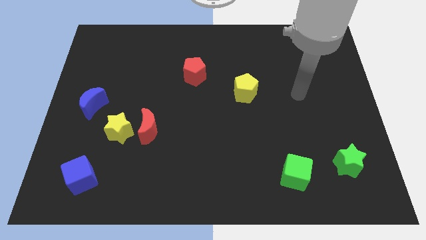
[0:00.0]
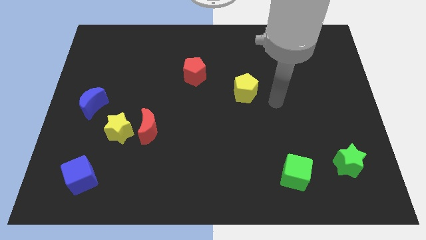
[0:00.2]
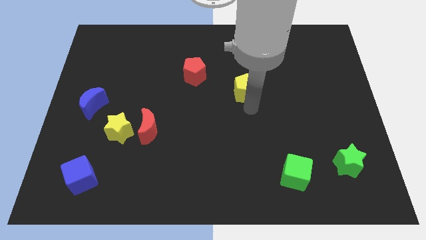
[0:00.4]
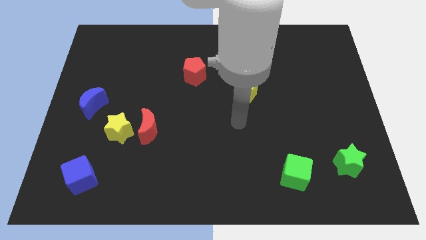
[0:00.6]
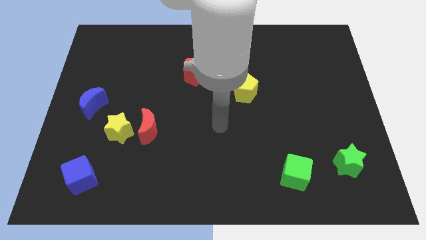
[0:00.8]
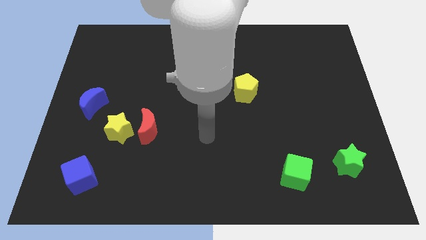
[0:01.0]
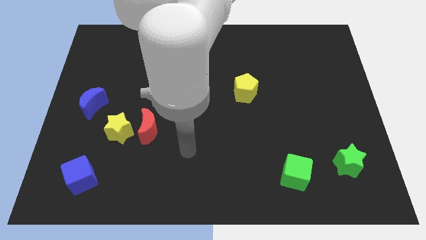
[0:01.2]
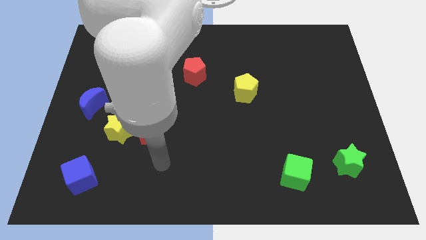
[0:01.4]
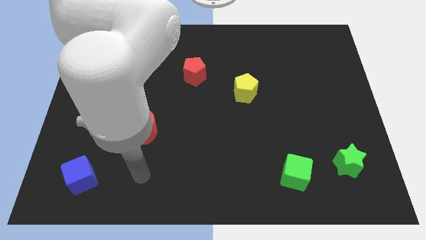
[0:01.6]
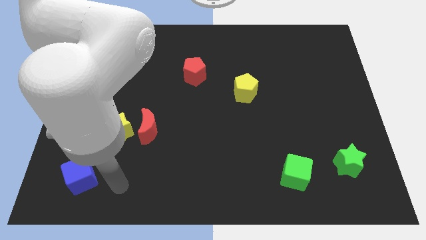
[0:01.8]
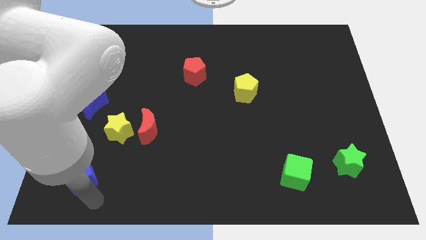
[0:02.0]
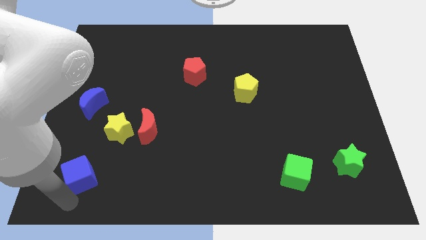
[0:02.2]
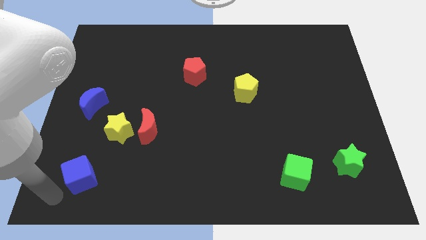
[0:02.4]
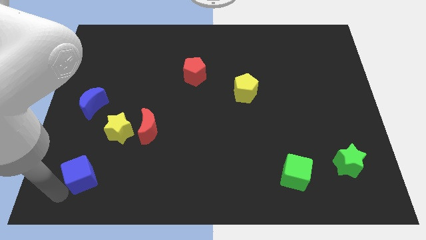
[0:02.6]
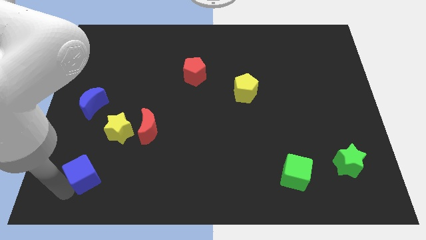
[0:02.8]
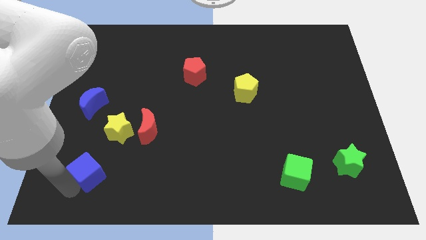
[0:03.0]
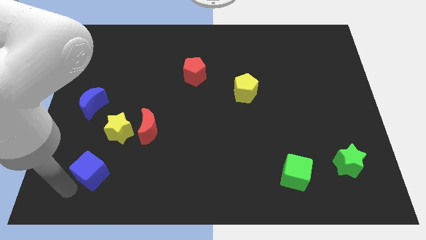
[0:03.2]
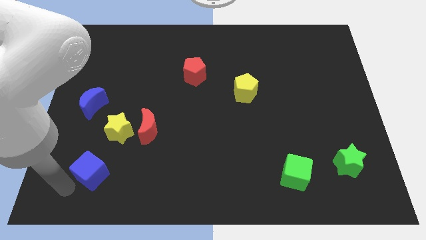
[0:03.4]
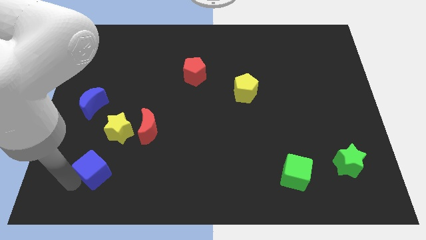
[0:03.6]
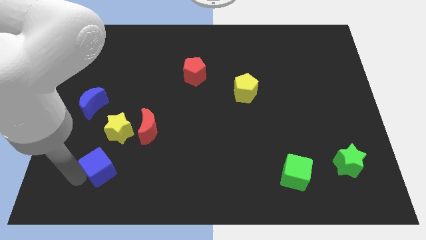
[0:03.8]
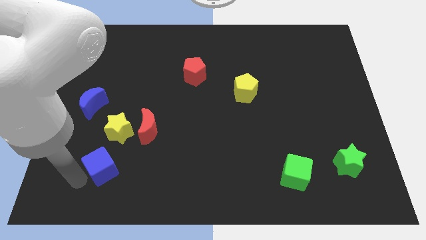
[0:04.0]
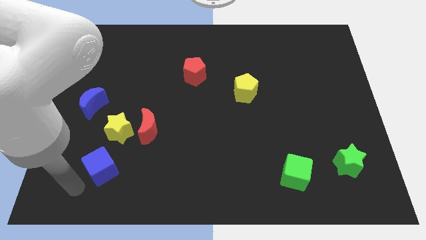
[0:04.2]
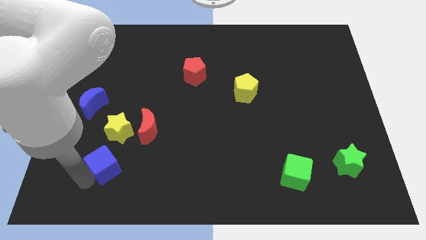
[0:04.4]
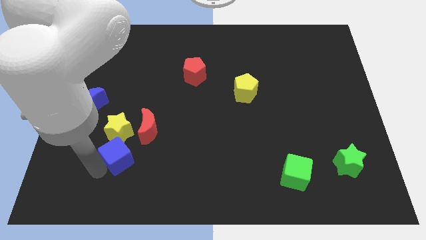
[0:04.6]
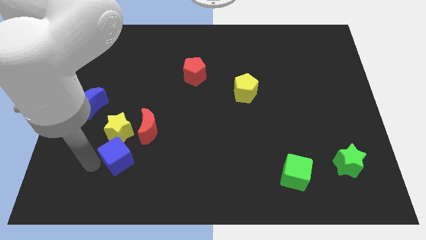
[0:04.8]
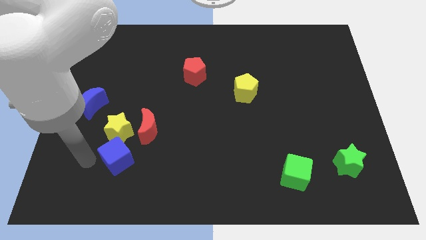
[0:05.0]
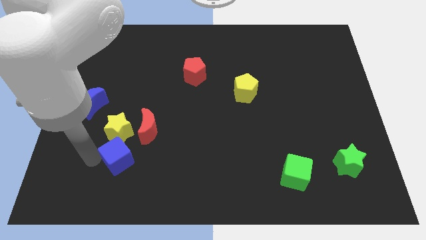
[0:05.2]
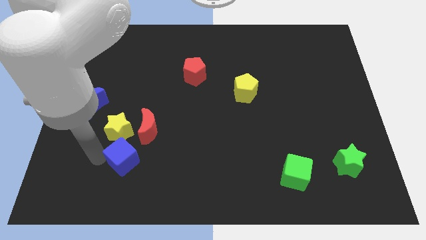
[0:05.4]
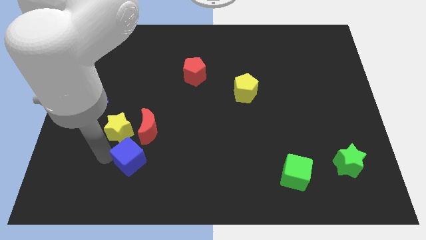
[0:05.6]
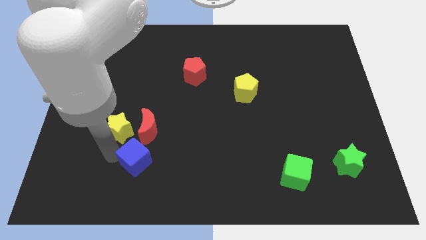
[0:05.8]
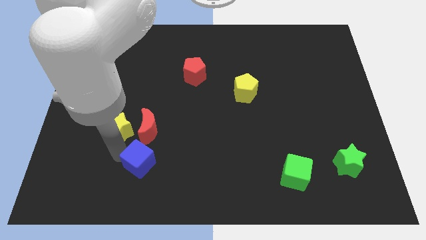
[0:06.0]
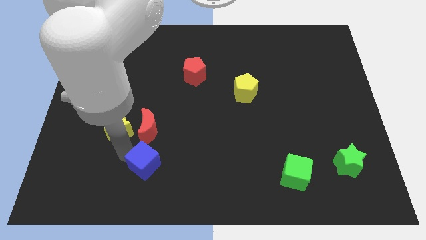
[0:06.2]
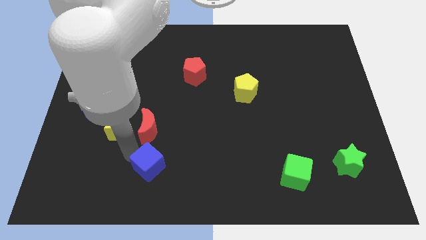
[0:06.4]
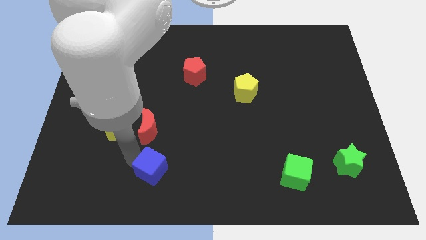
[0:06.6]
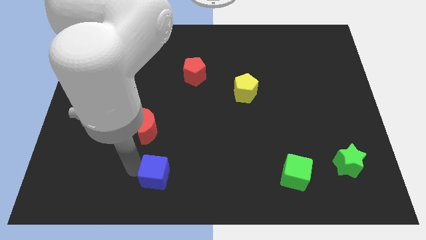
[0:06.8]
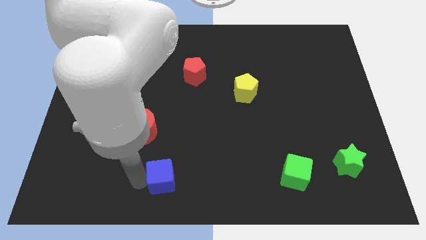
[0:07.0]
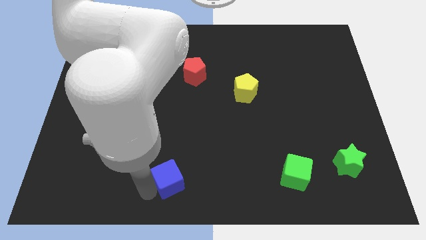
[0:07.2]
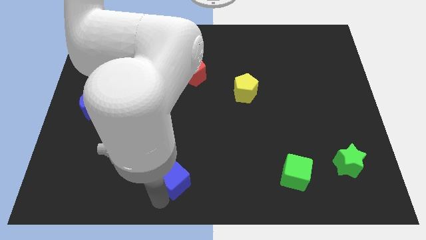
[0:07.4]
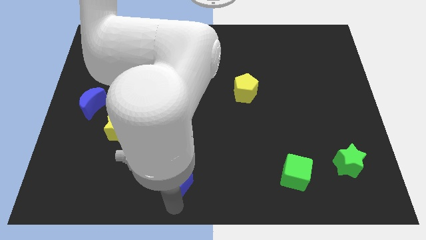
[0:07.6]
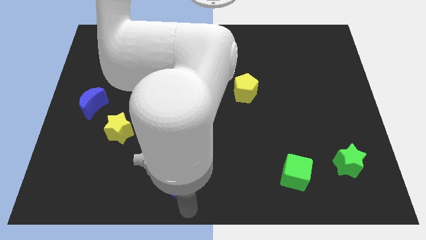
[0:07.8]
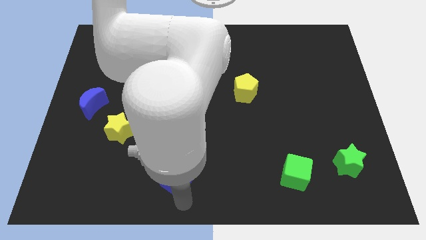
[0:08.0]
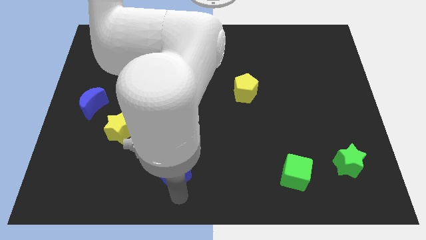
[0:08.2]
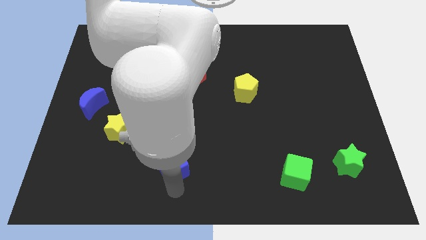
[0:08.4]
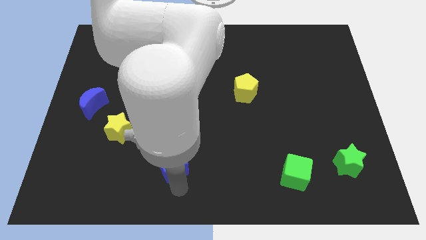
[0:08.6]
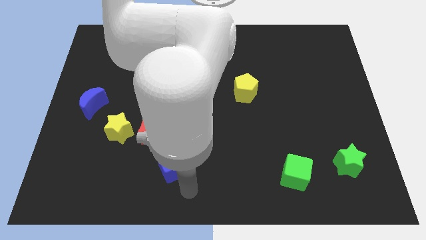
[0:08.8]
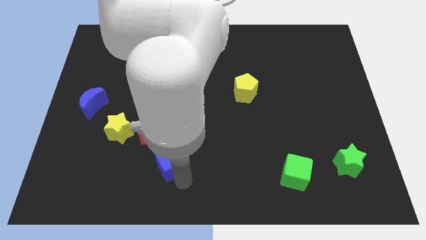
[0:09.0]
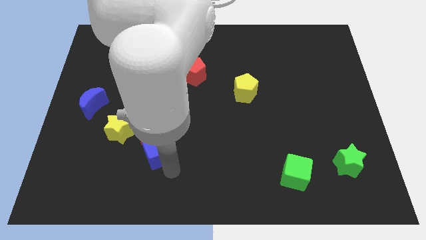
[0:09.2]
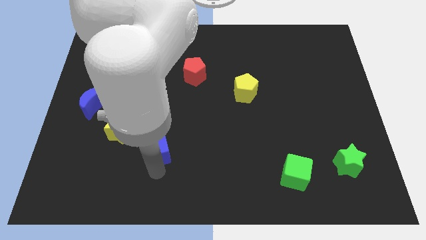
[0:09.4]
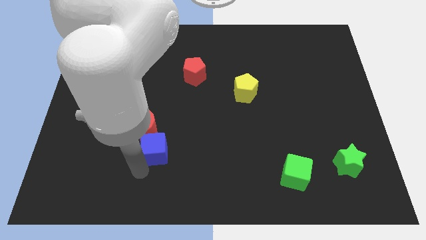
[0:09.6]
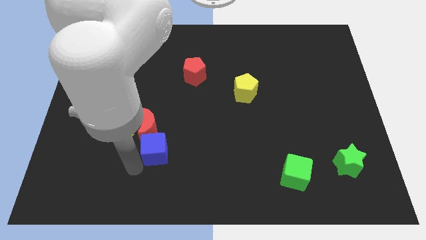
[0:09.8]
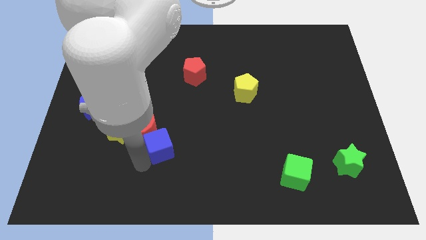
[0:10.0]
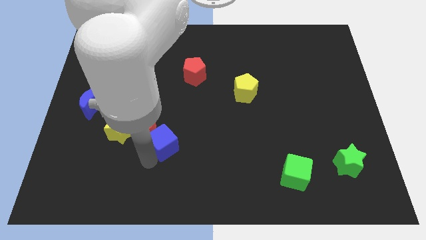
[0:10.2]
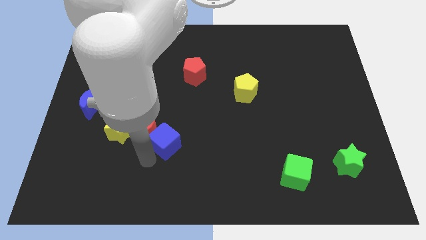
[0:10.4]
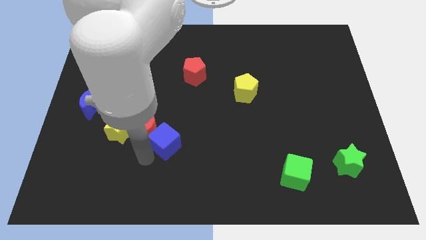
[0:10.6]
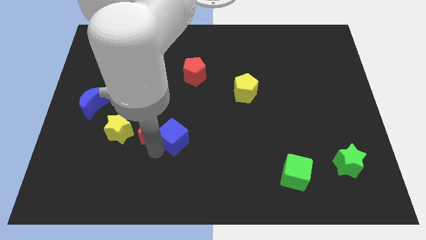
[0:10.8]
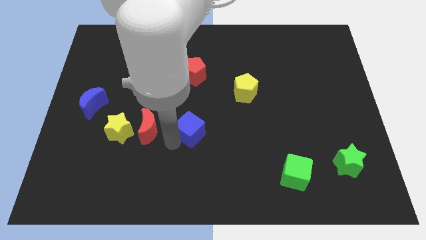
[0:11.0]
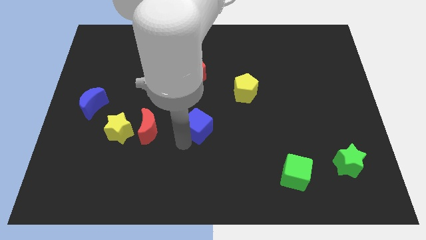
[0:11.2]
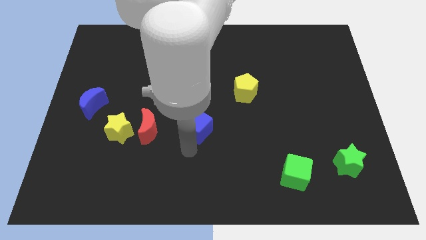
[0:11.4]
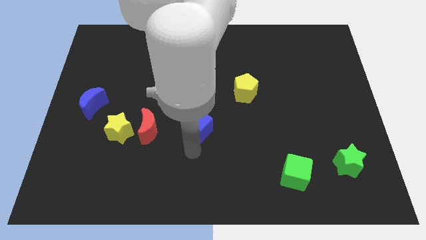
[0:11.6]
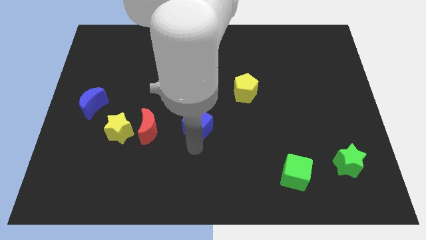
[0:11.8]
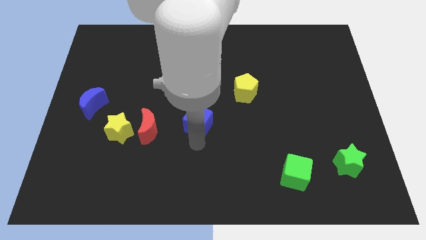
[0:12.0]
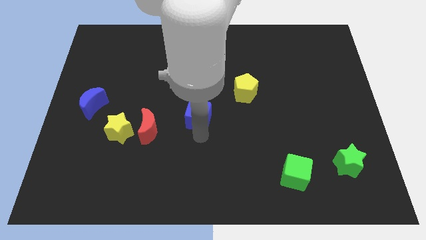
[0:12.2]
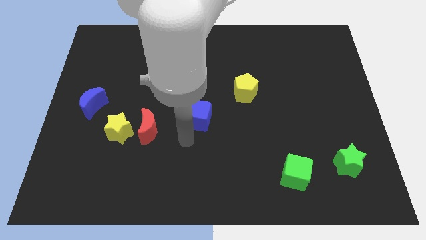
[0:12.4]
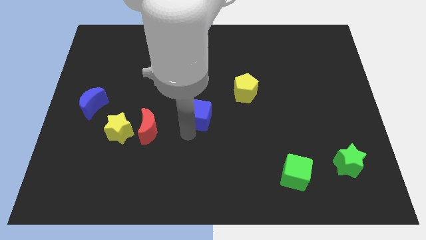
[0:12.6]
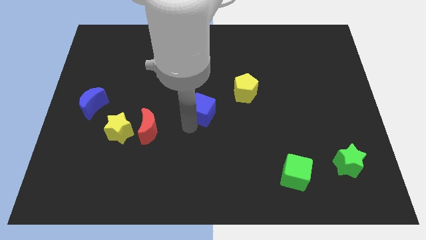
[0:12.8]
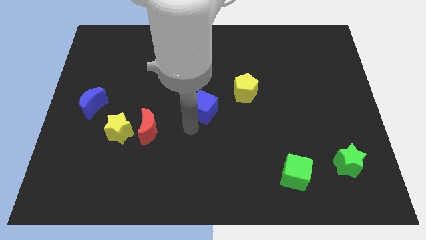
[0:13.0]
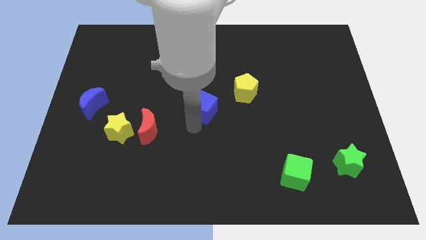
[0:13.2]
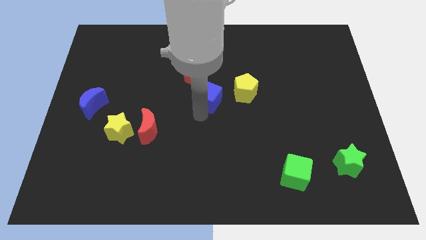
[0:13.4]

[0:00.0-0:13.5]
push the blue cube diagonally down and to the right of the red pentagon
